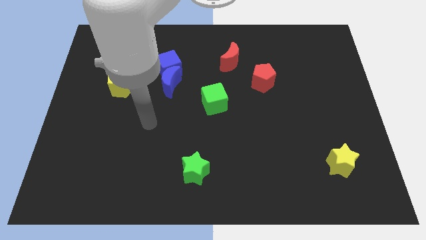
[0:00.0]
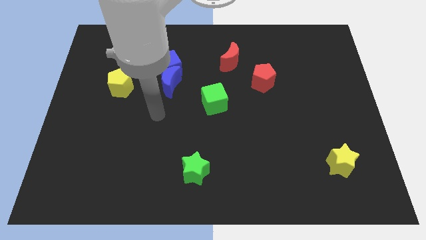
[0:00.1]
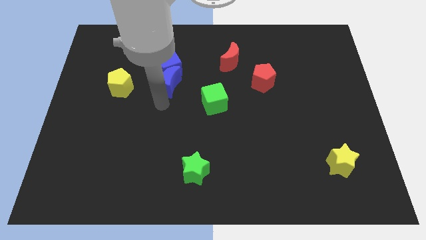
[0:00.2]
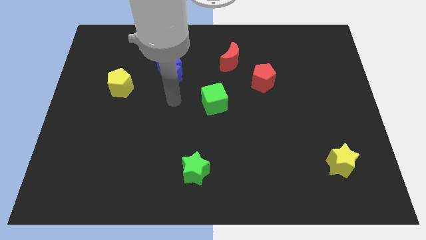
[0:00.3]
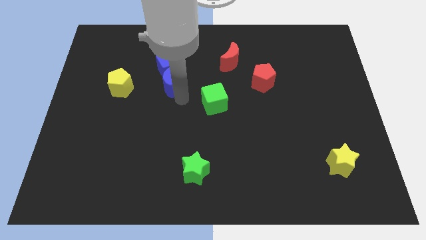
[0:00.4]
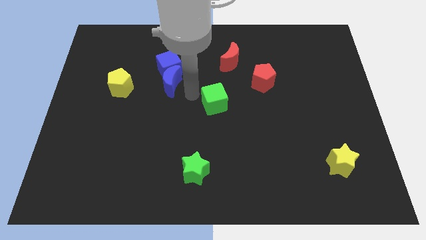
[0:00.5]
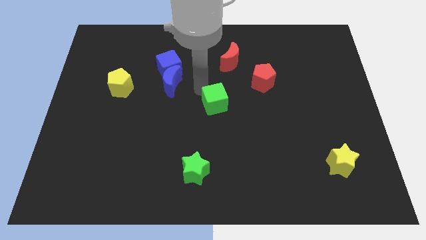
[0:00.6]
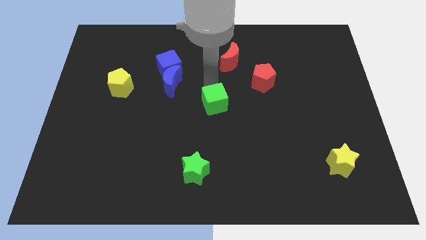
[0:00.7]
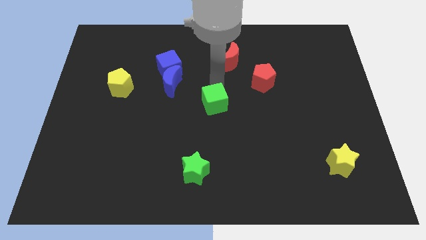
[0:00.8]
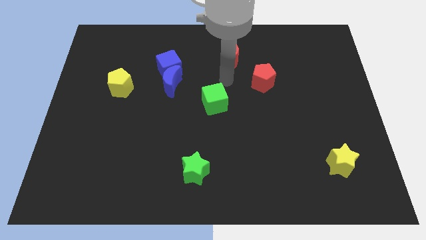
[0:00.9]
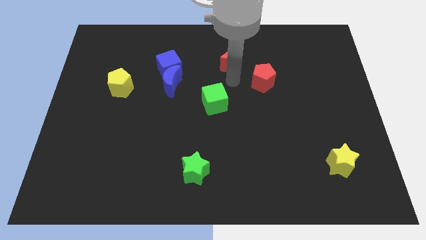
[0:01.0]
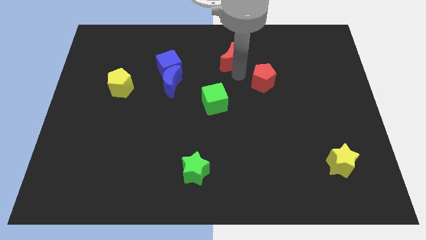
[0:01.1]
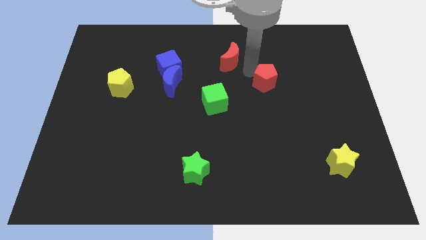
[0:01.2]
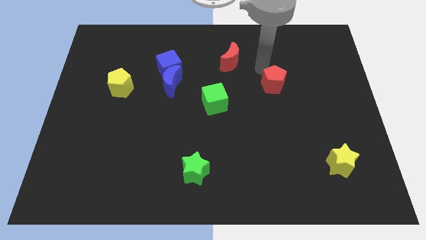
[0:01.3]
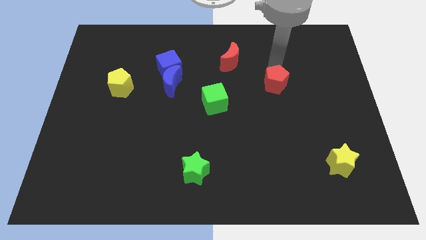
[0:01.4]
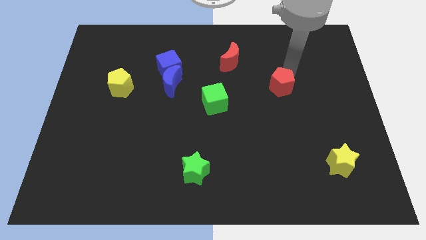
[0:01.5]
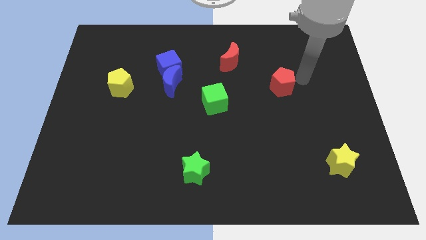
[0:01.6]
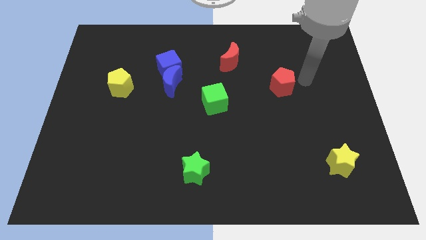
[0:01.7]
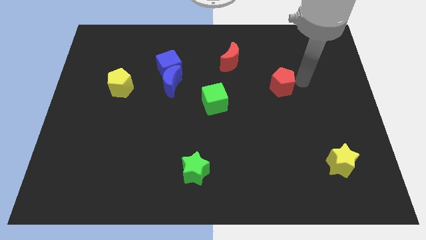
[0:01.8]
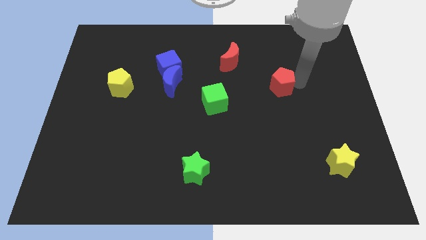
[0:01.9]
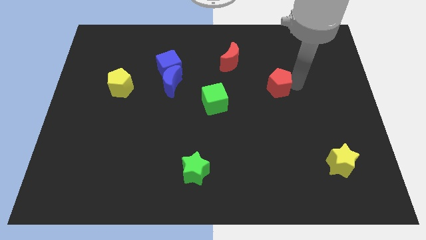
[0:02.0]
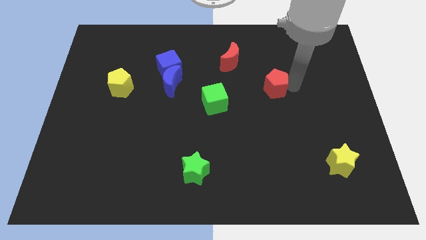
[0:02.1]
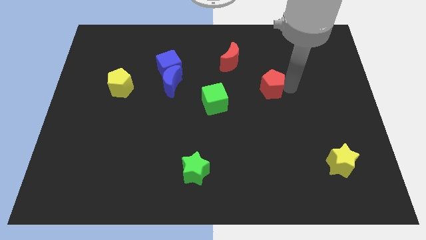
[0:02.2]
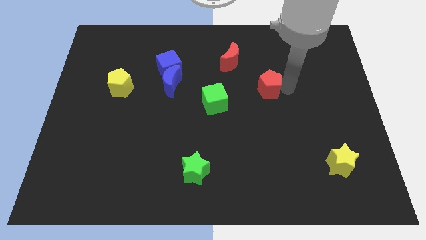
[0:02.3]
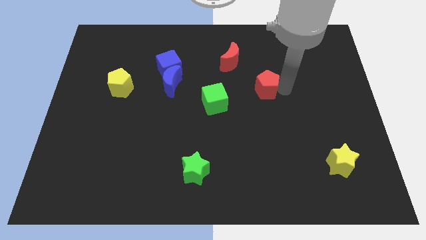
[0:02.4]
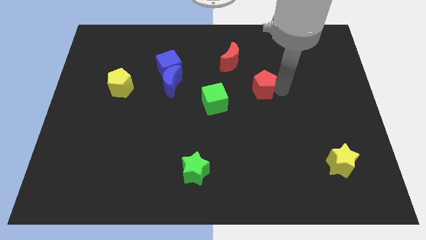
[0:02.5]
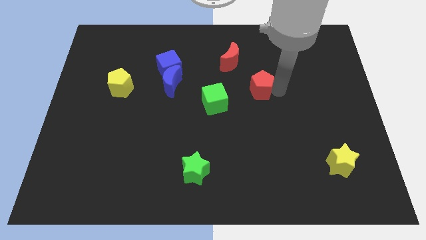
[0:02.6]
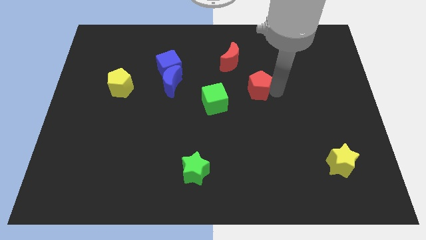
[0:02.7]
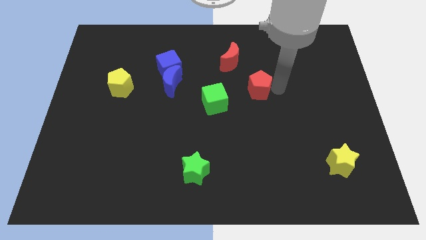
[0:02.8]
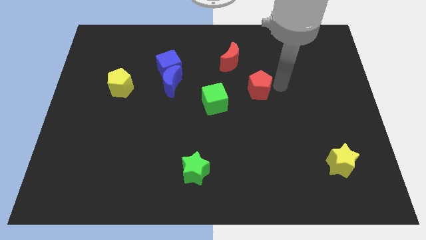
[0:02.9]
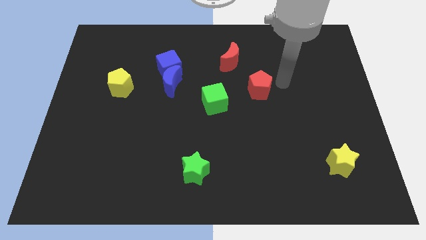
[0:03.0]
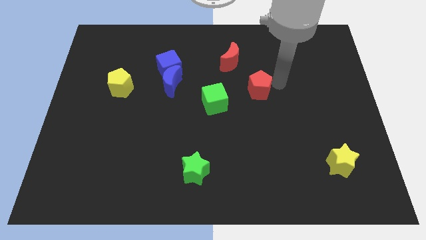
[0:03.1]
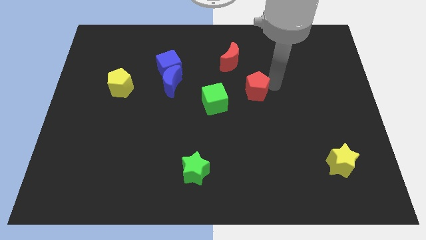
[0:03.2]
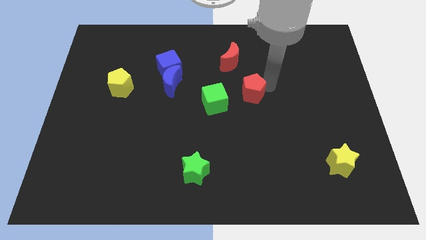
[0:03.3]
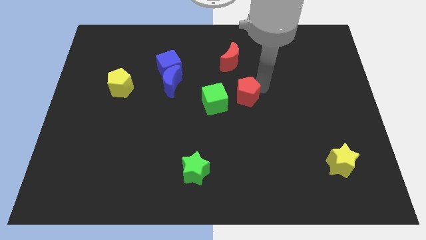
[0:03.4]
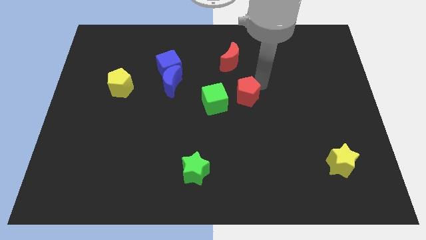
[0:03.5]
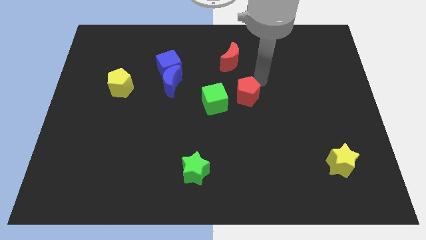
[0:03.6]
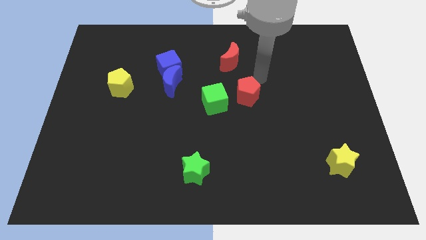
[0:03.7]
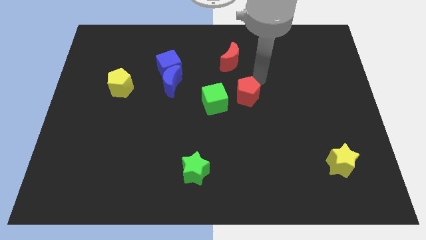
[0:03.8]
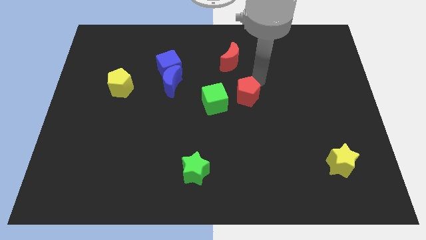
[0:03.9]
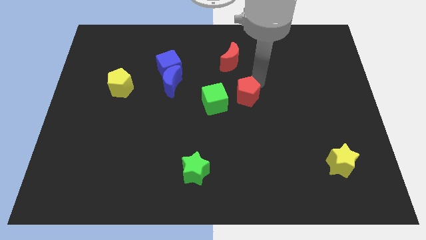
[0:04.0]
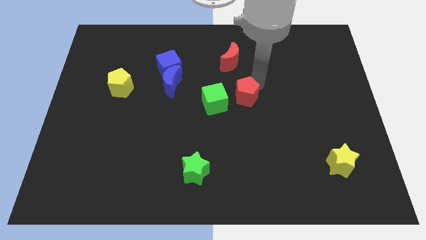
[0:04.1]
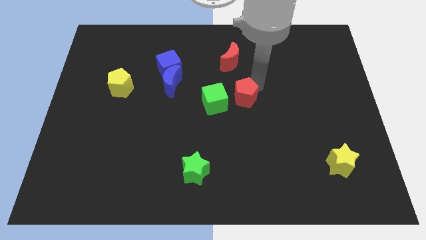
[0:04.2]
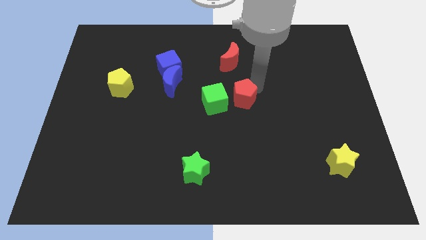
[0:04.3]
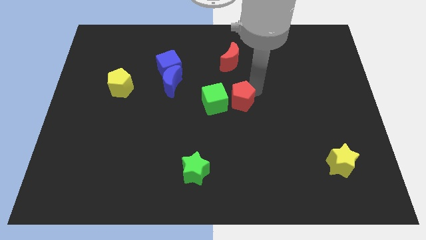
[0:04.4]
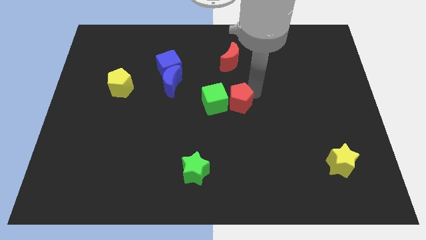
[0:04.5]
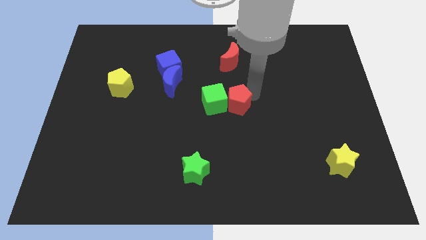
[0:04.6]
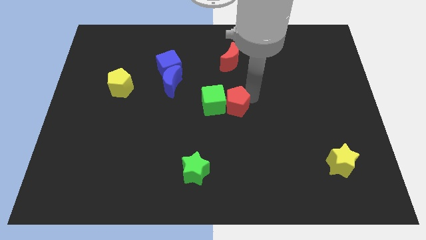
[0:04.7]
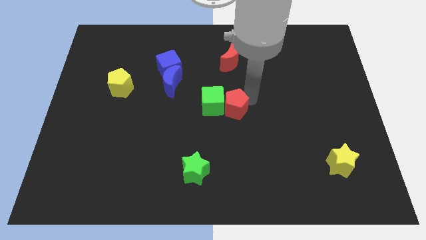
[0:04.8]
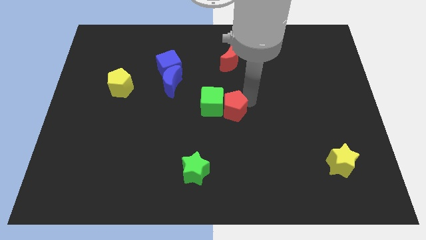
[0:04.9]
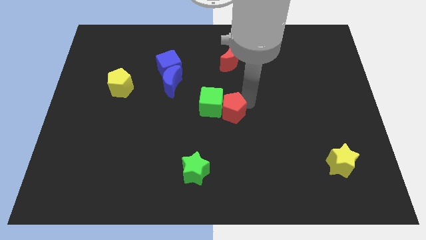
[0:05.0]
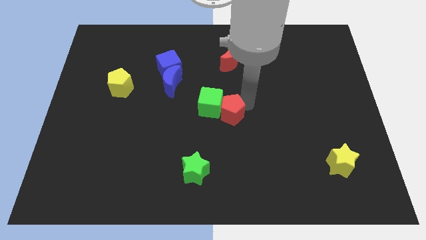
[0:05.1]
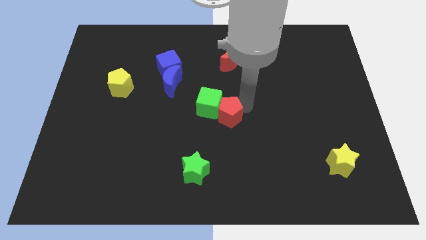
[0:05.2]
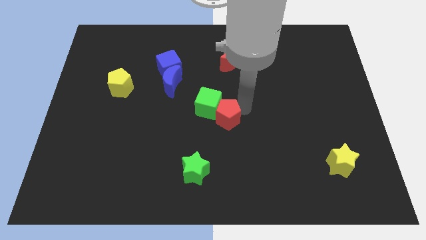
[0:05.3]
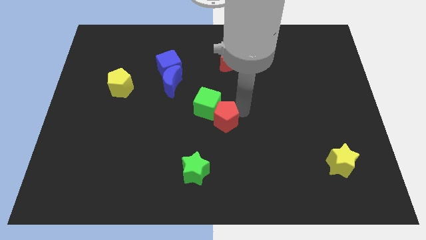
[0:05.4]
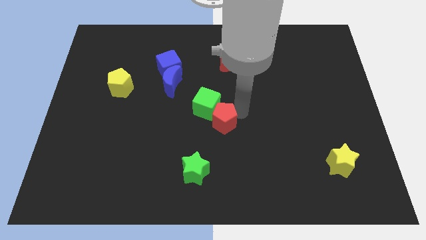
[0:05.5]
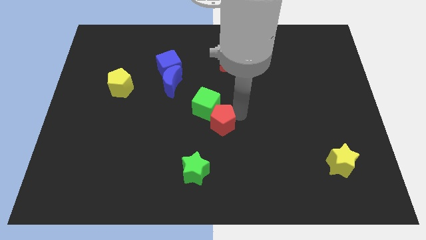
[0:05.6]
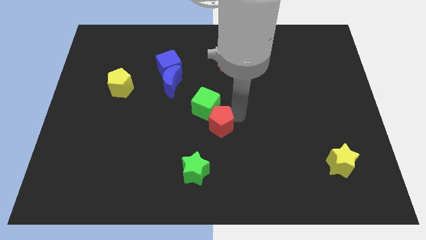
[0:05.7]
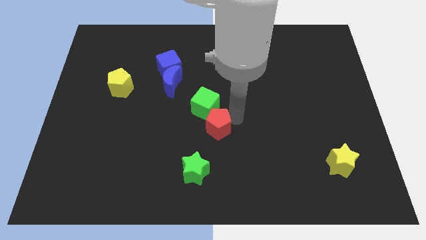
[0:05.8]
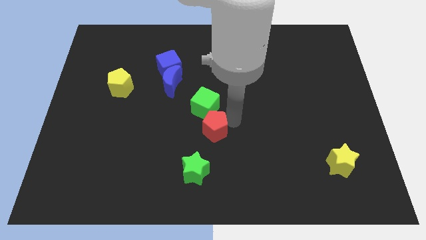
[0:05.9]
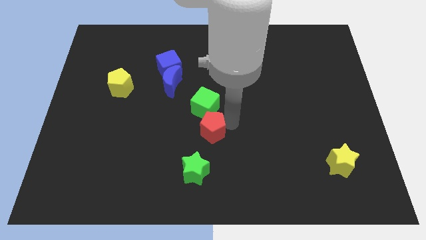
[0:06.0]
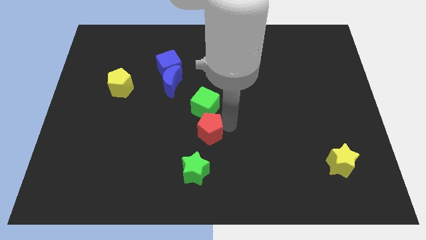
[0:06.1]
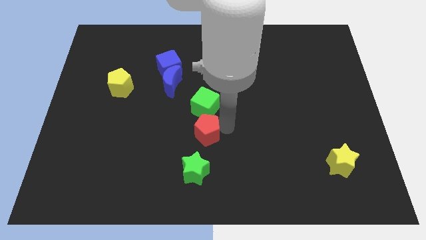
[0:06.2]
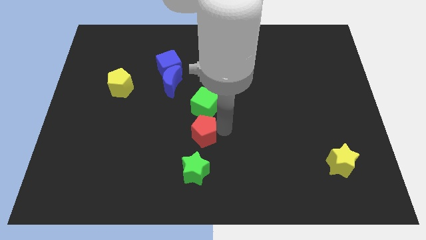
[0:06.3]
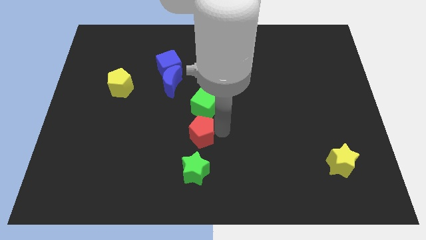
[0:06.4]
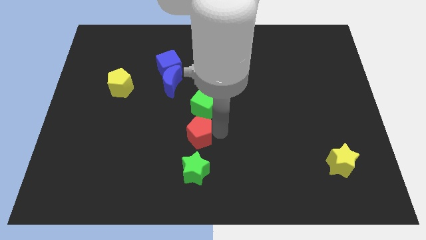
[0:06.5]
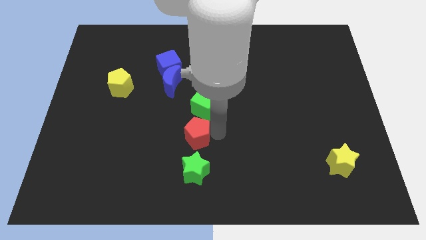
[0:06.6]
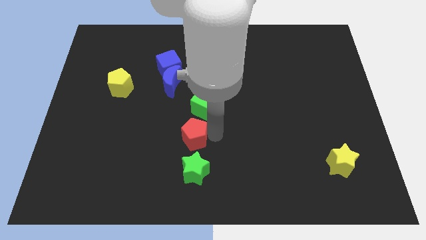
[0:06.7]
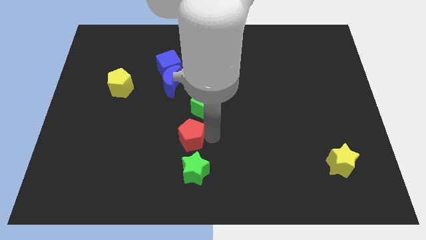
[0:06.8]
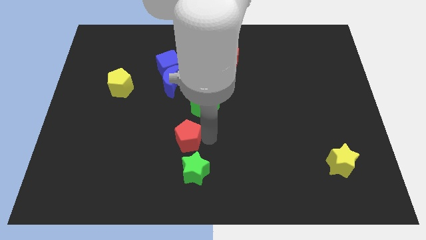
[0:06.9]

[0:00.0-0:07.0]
move the red pentagon diagonally up and to the left of the green star

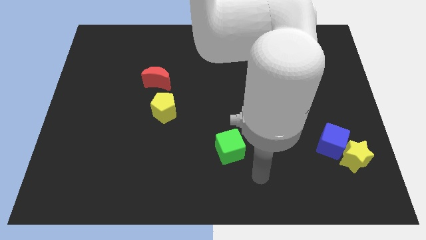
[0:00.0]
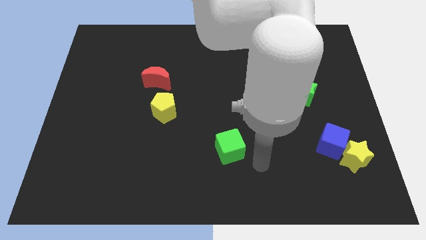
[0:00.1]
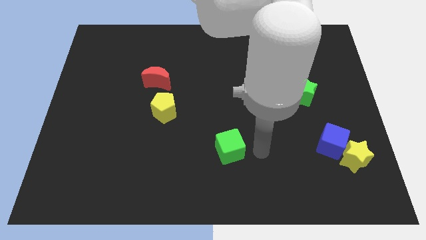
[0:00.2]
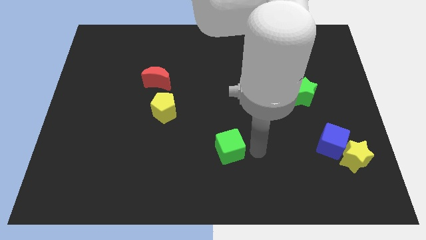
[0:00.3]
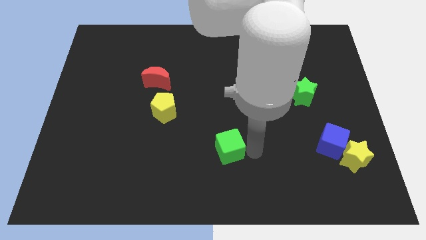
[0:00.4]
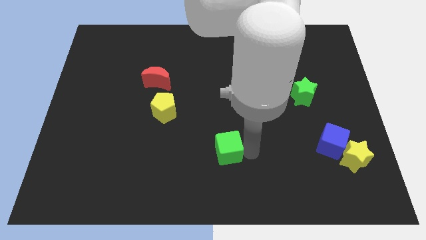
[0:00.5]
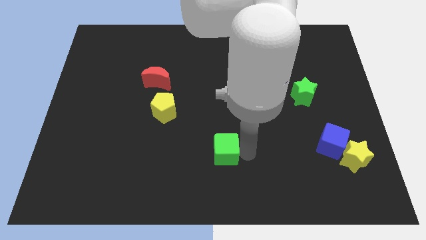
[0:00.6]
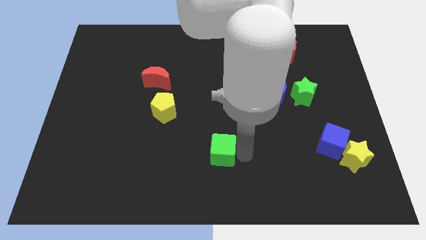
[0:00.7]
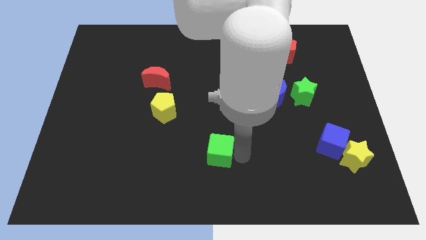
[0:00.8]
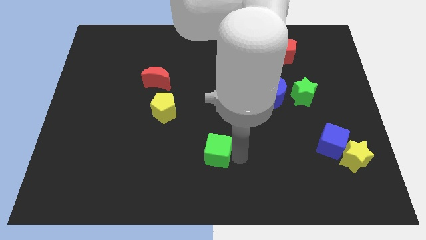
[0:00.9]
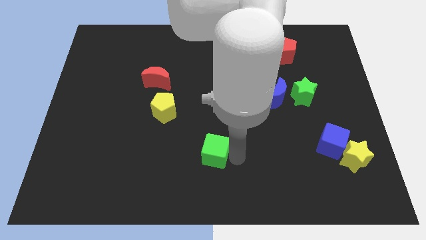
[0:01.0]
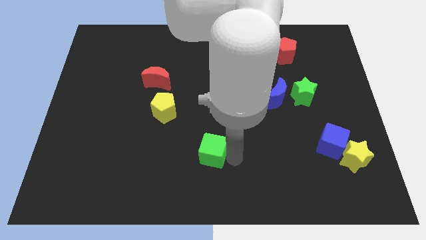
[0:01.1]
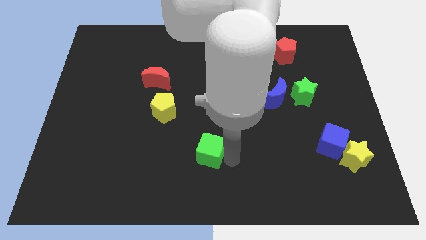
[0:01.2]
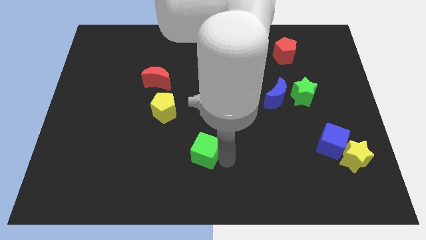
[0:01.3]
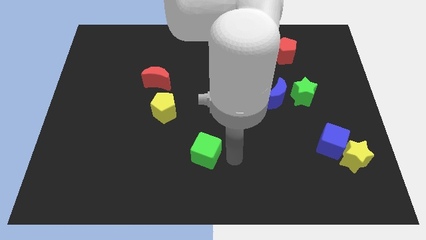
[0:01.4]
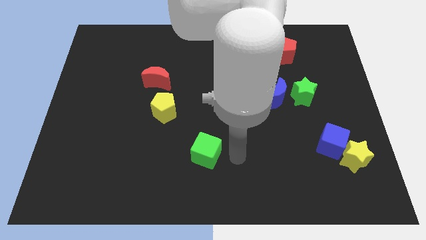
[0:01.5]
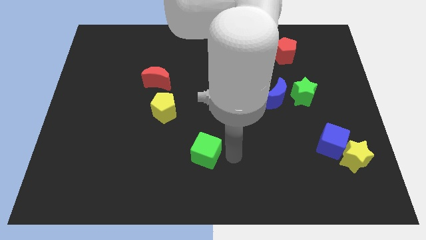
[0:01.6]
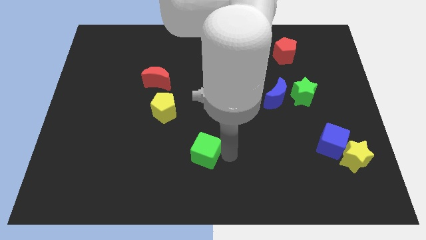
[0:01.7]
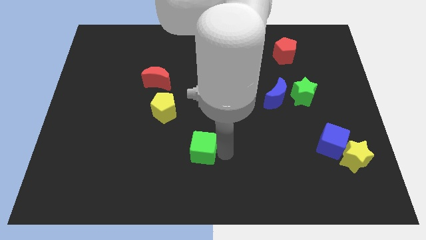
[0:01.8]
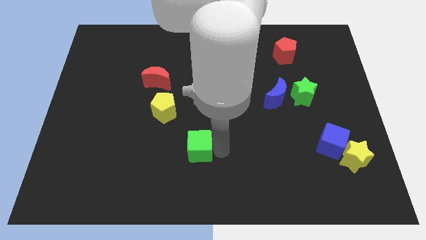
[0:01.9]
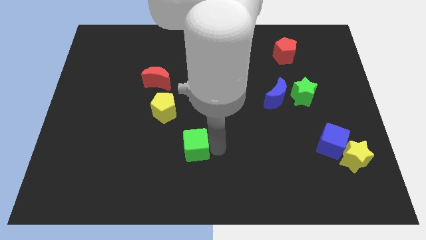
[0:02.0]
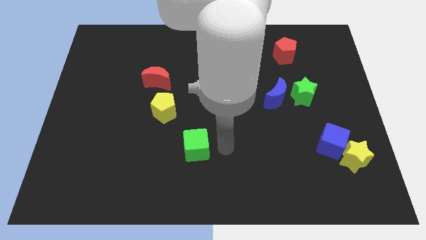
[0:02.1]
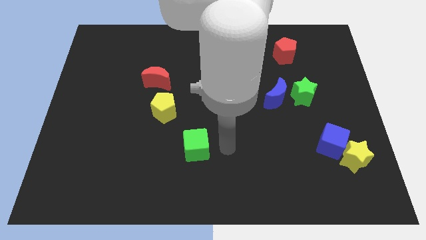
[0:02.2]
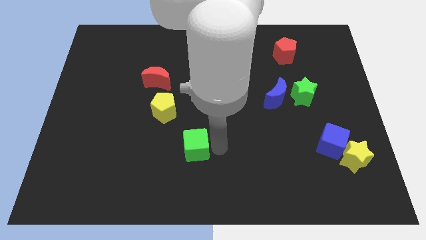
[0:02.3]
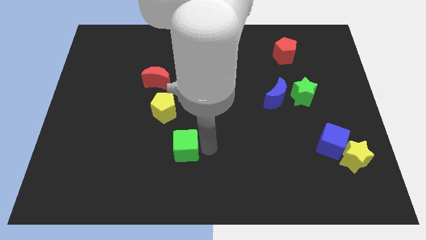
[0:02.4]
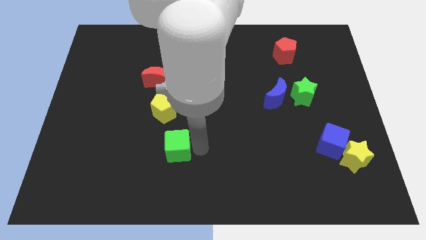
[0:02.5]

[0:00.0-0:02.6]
put the green cube below the yellow pentagon
